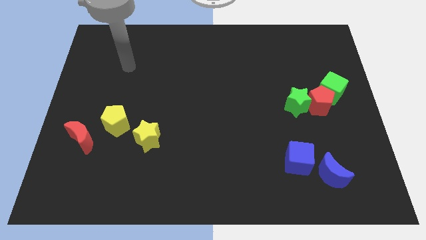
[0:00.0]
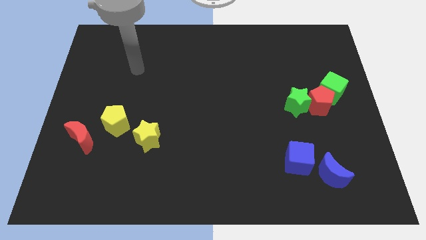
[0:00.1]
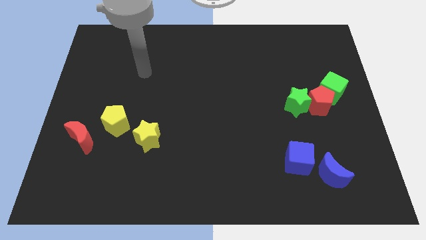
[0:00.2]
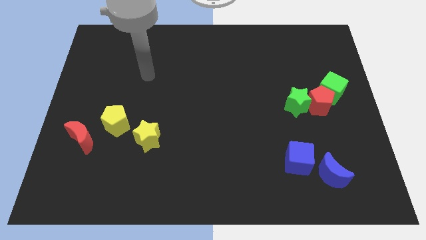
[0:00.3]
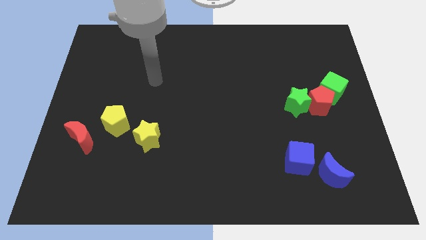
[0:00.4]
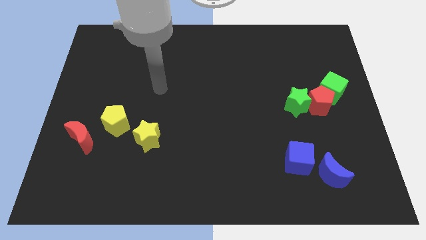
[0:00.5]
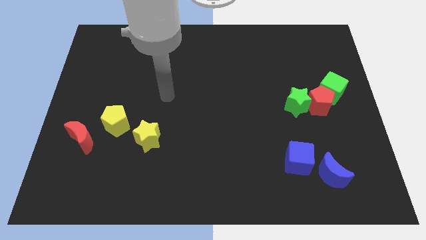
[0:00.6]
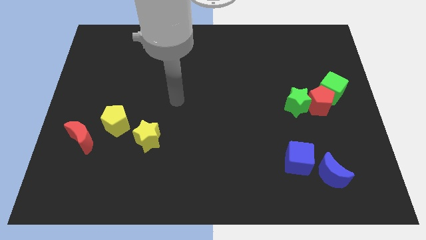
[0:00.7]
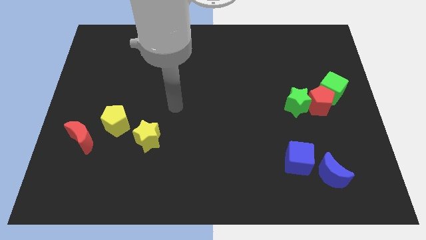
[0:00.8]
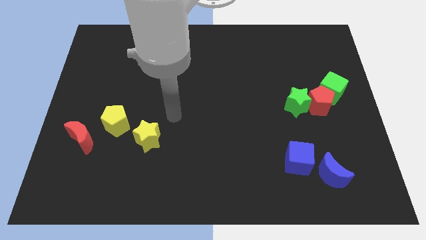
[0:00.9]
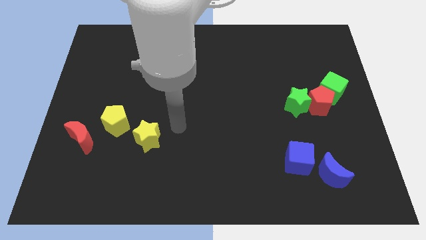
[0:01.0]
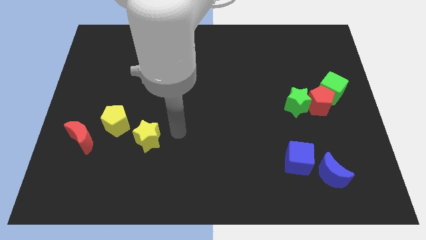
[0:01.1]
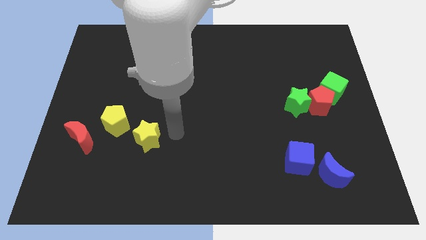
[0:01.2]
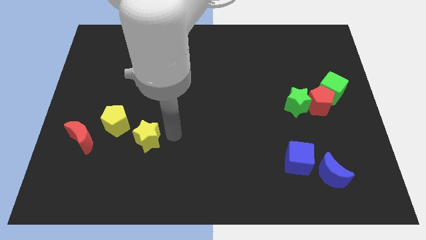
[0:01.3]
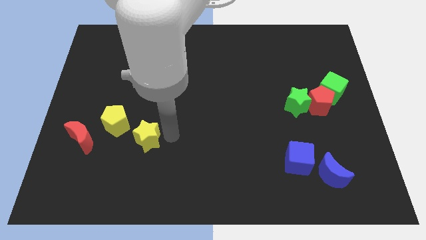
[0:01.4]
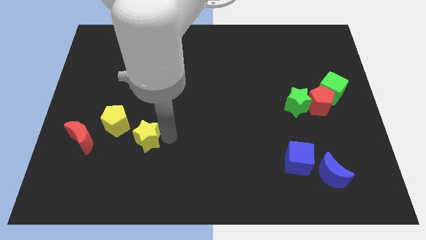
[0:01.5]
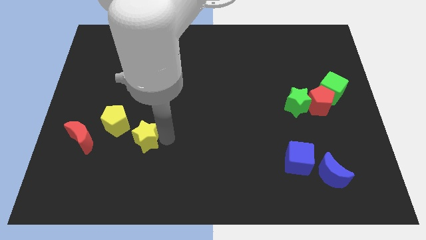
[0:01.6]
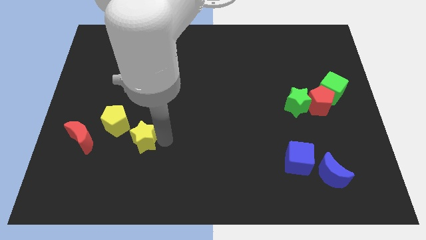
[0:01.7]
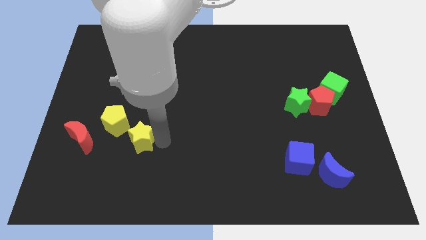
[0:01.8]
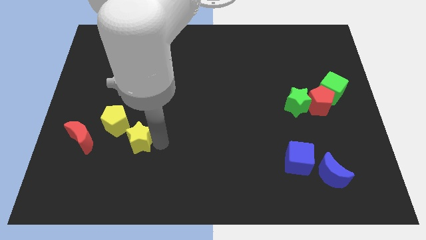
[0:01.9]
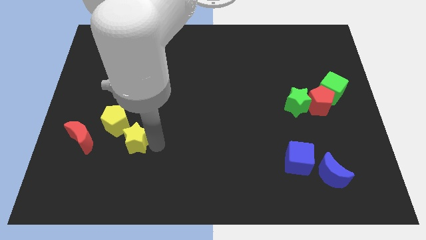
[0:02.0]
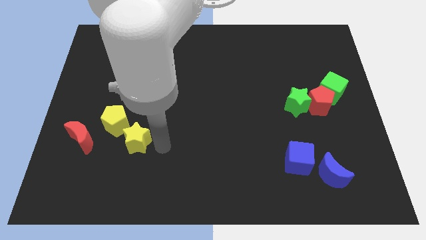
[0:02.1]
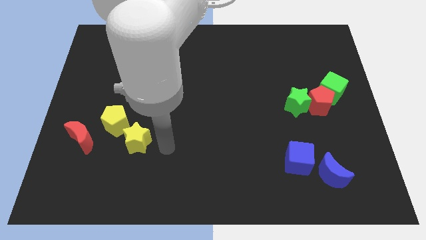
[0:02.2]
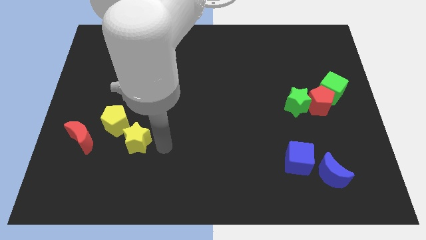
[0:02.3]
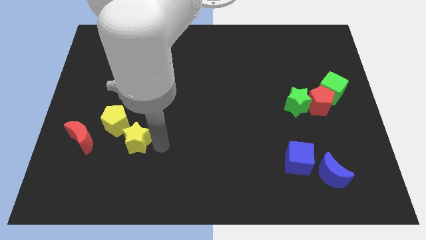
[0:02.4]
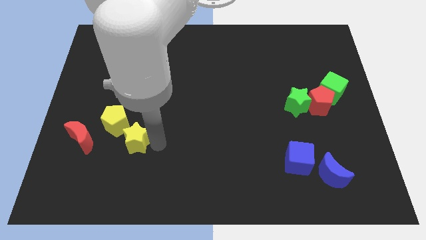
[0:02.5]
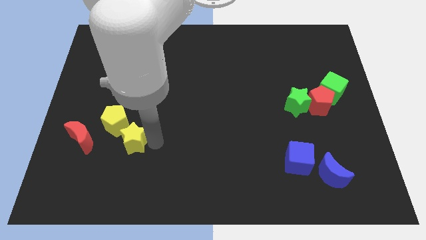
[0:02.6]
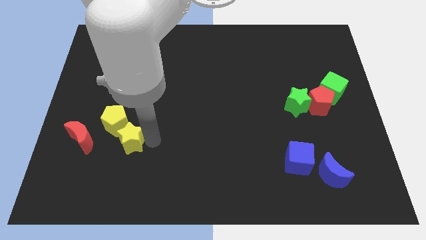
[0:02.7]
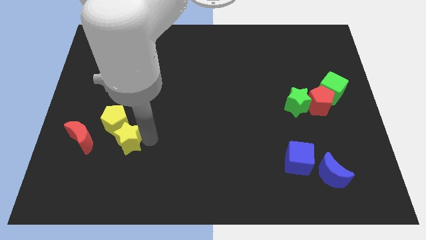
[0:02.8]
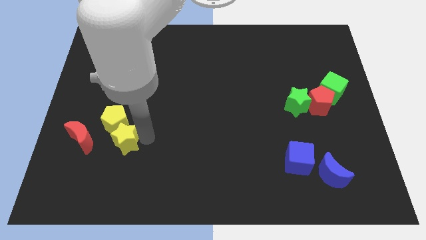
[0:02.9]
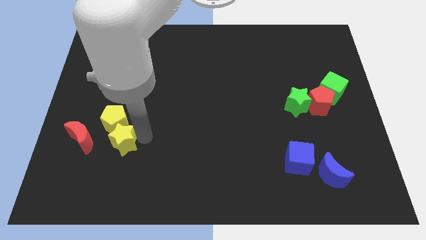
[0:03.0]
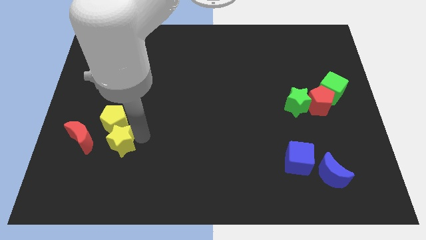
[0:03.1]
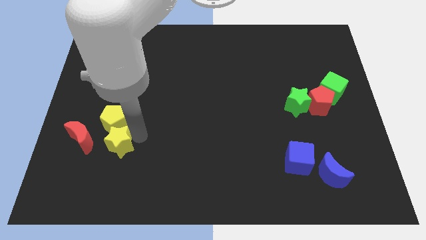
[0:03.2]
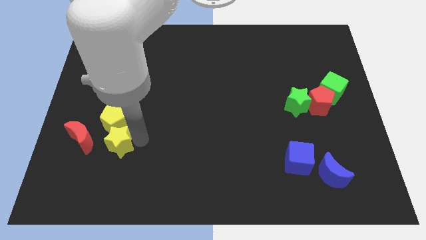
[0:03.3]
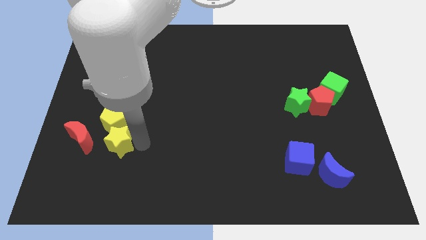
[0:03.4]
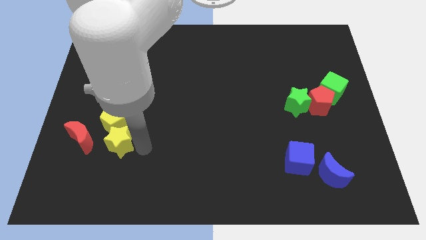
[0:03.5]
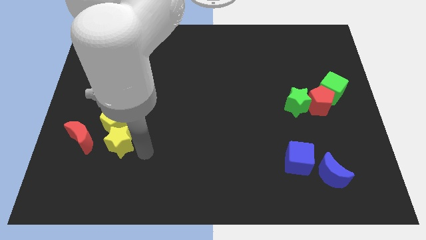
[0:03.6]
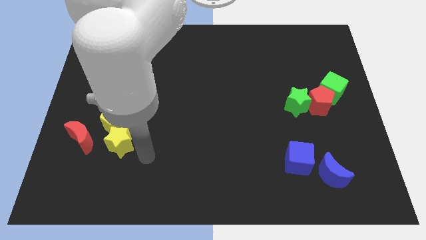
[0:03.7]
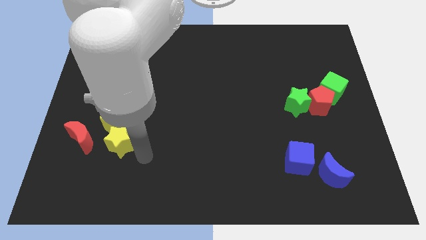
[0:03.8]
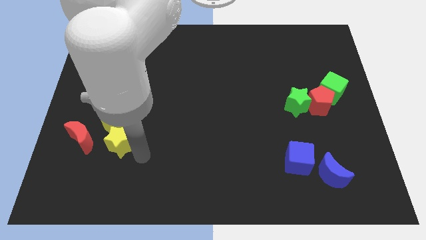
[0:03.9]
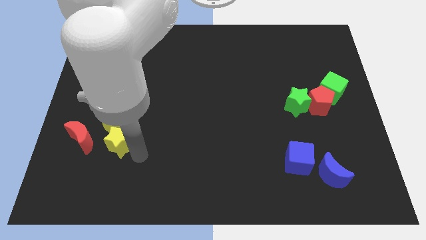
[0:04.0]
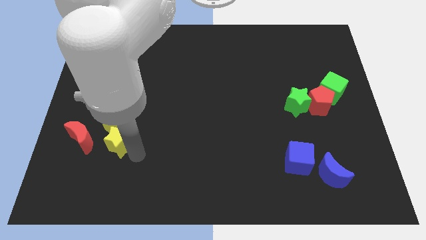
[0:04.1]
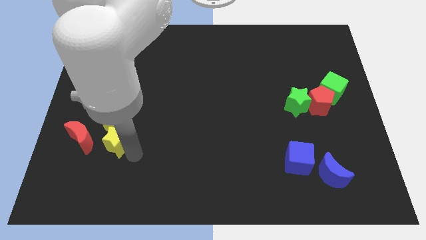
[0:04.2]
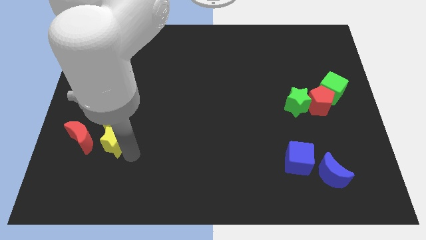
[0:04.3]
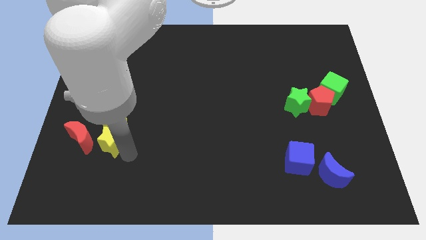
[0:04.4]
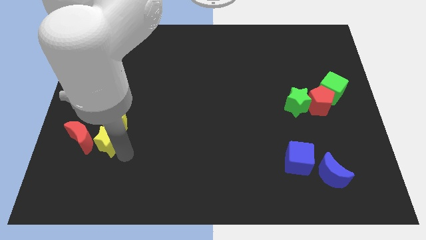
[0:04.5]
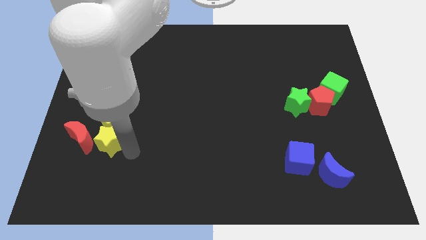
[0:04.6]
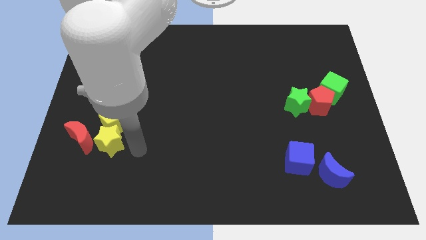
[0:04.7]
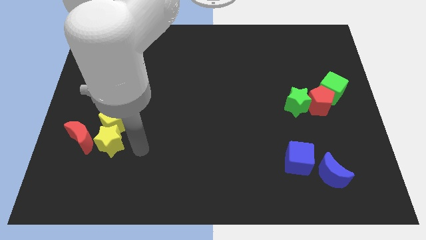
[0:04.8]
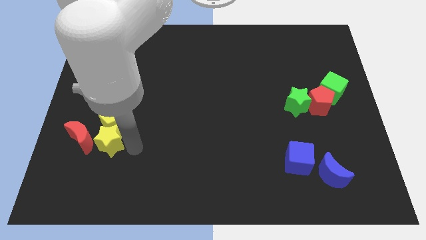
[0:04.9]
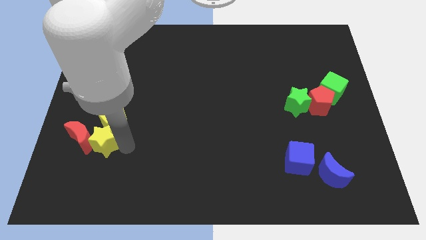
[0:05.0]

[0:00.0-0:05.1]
slide the yellow star towards the red moon

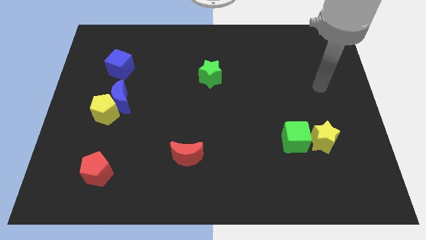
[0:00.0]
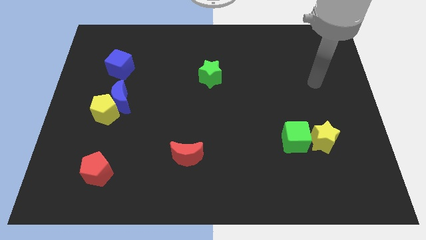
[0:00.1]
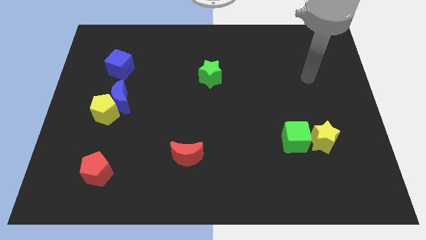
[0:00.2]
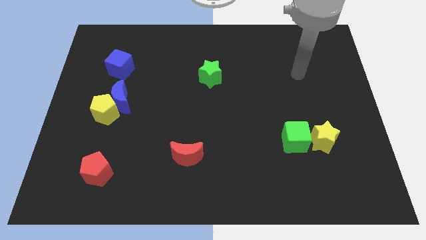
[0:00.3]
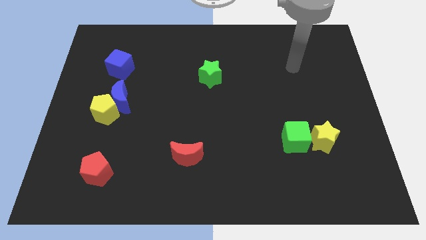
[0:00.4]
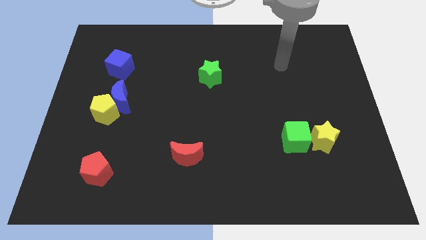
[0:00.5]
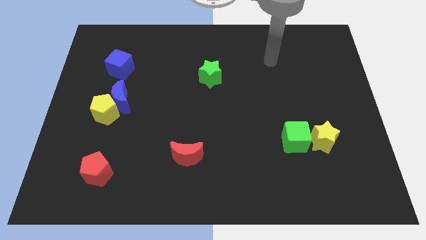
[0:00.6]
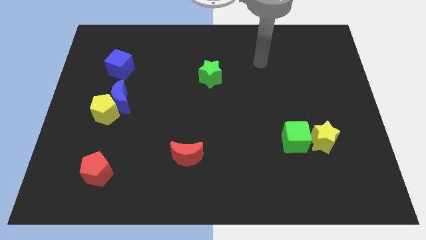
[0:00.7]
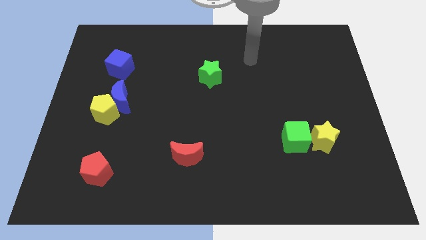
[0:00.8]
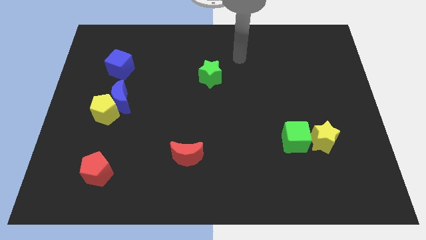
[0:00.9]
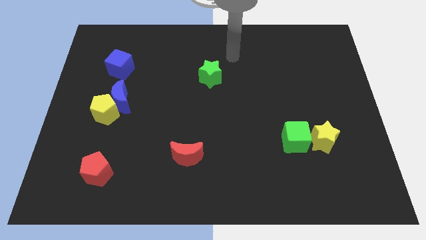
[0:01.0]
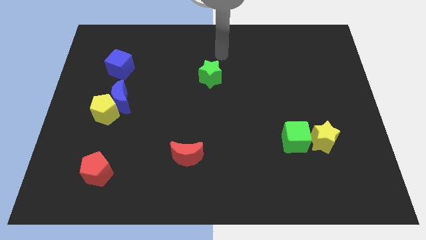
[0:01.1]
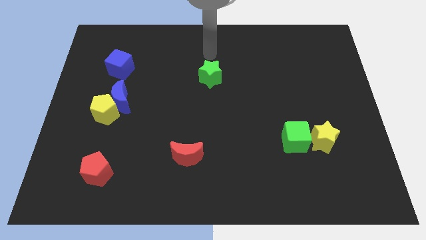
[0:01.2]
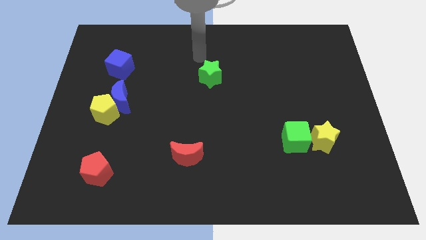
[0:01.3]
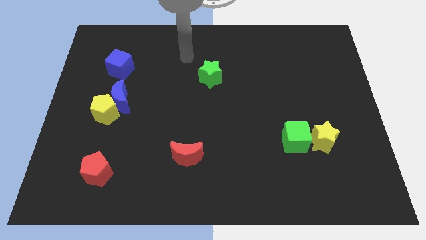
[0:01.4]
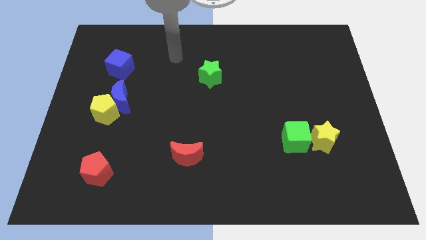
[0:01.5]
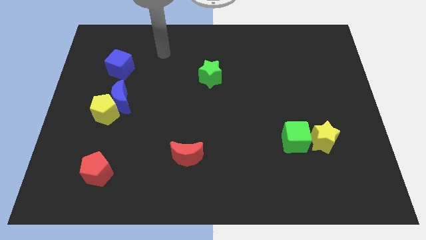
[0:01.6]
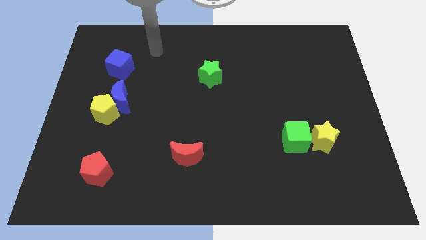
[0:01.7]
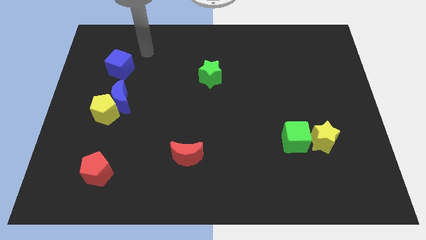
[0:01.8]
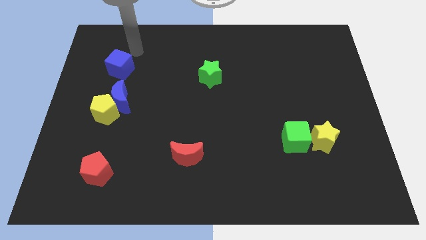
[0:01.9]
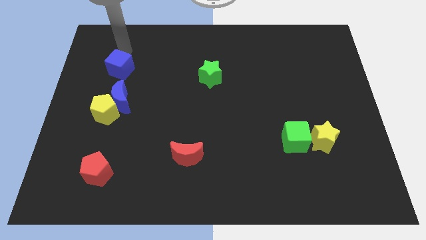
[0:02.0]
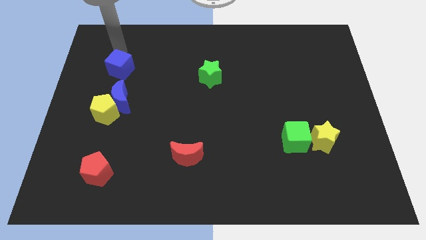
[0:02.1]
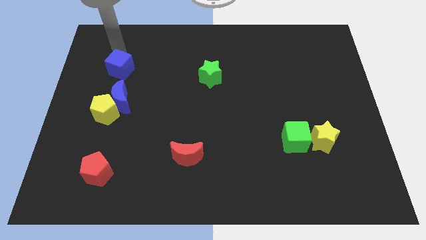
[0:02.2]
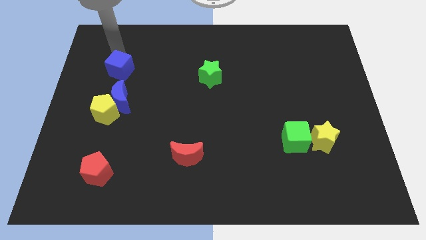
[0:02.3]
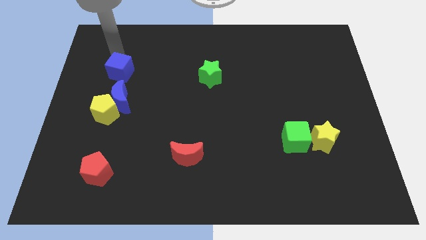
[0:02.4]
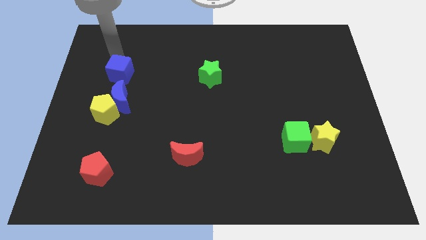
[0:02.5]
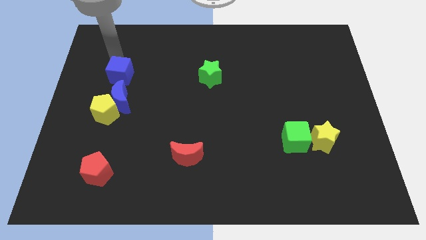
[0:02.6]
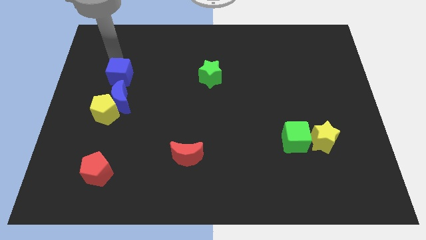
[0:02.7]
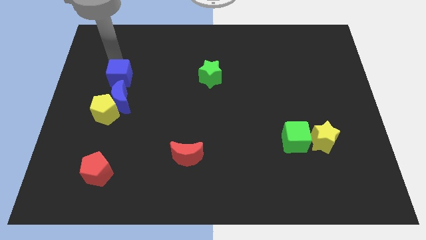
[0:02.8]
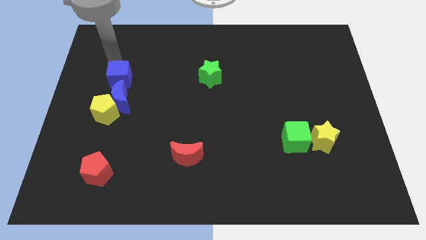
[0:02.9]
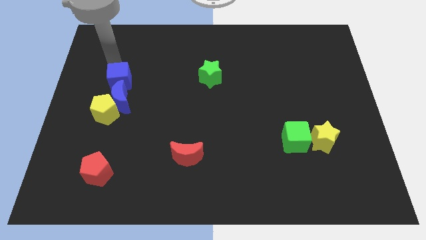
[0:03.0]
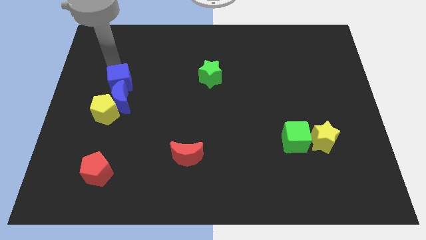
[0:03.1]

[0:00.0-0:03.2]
slide the blue cube close to the blue moon
